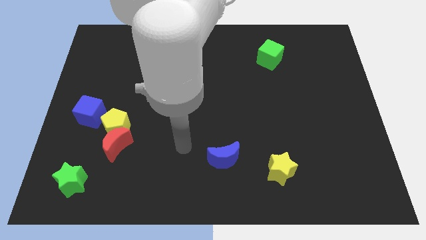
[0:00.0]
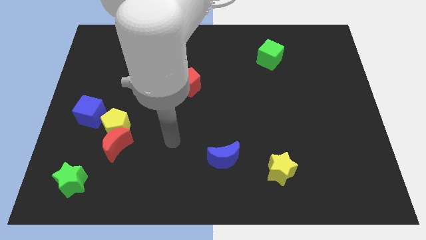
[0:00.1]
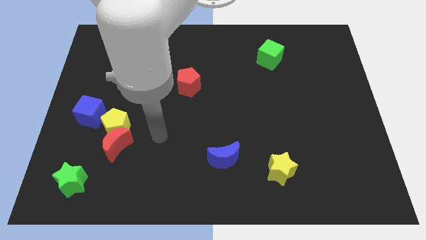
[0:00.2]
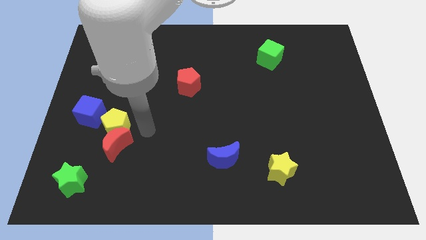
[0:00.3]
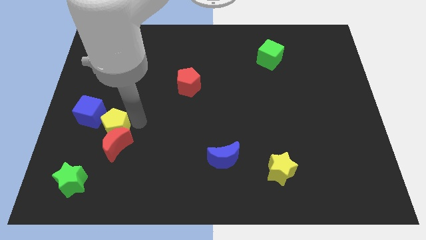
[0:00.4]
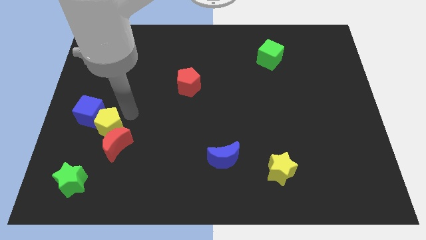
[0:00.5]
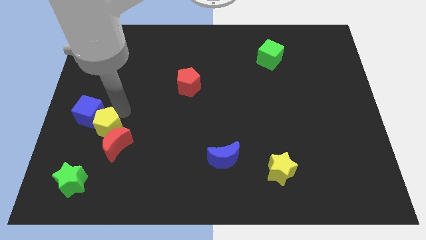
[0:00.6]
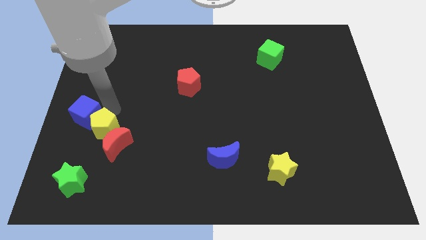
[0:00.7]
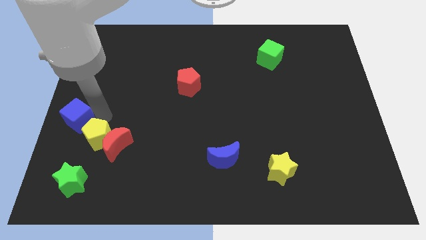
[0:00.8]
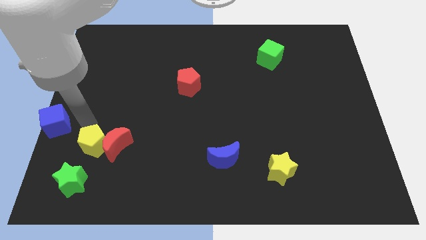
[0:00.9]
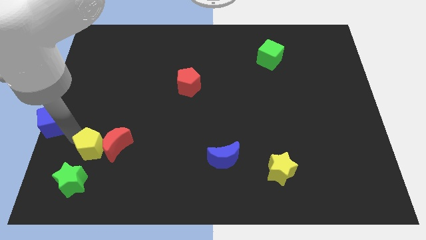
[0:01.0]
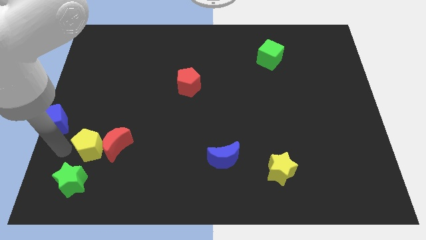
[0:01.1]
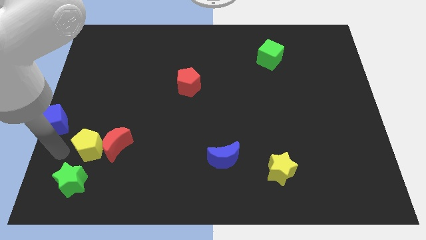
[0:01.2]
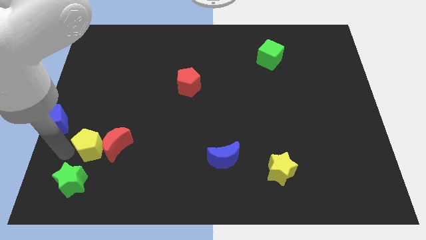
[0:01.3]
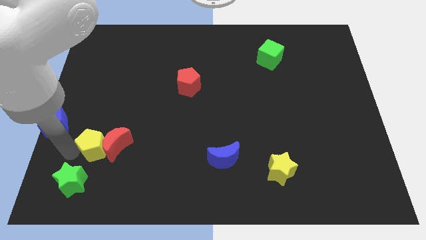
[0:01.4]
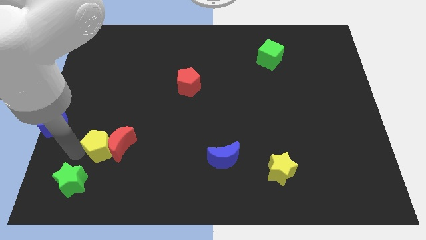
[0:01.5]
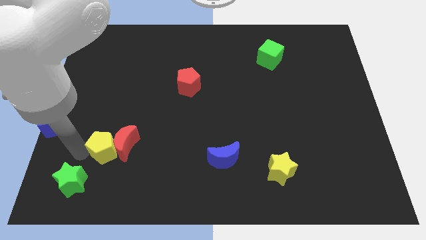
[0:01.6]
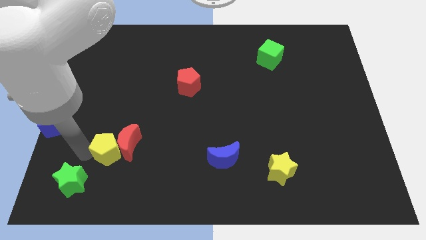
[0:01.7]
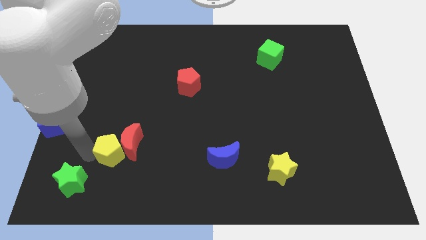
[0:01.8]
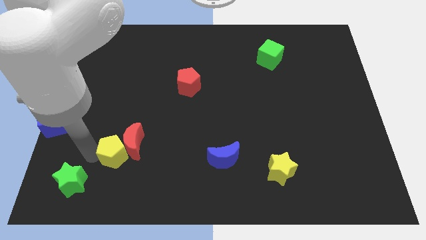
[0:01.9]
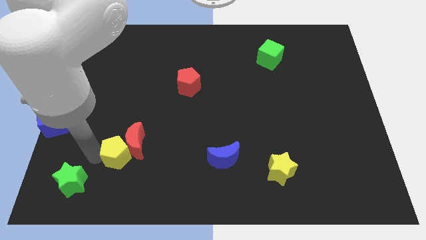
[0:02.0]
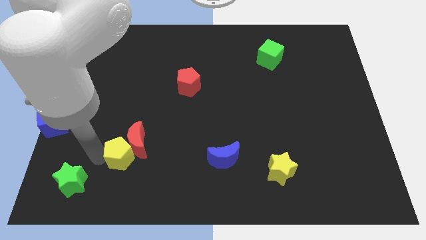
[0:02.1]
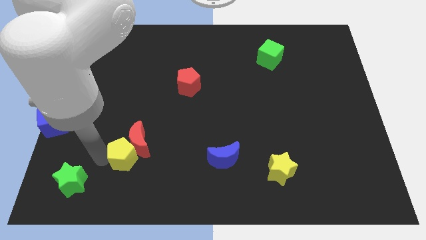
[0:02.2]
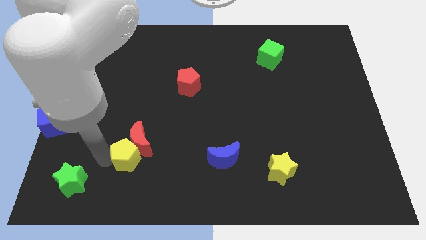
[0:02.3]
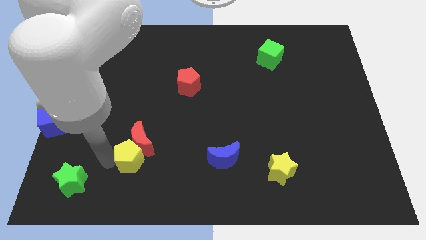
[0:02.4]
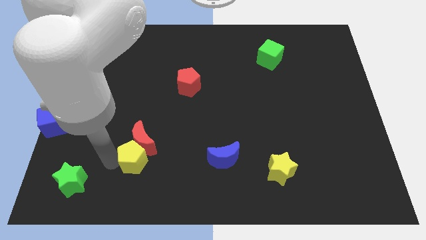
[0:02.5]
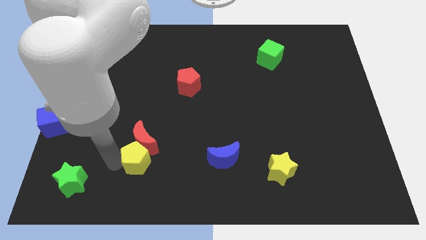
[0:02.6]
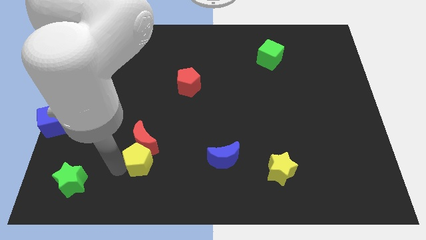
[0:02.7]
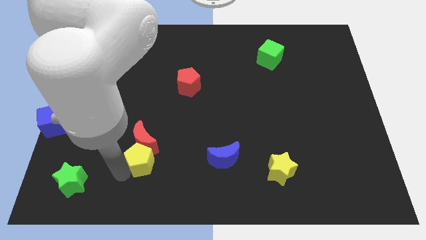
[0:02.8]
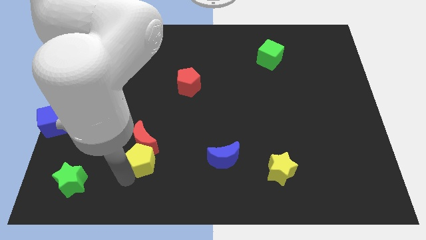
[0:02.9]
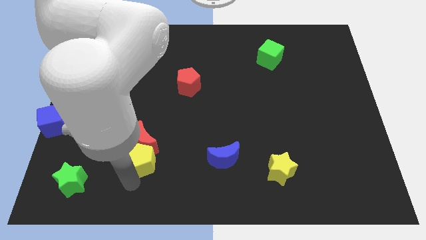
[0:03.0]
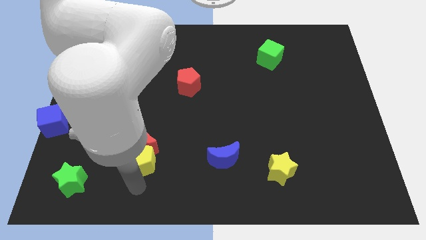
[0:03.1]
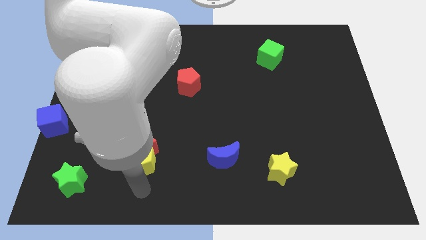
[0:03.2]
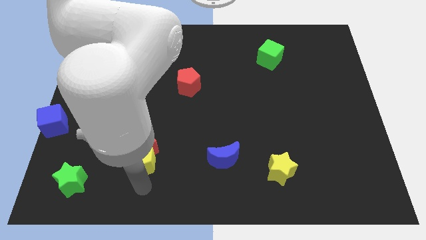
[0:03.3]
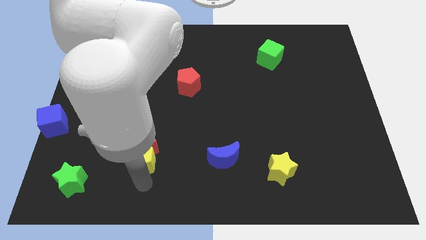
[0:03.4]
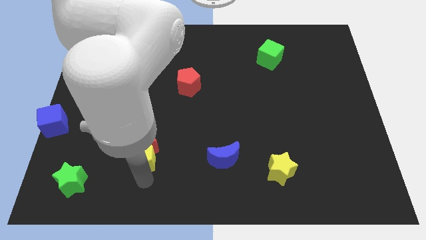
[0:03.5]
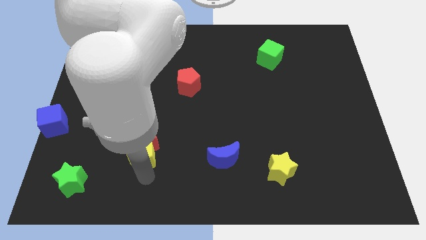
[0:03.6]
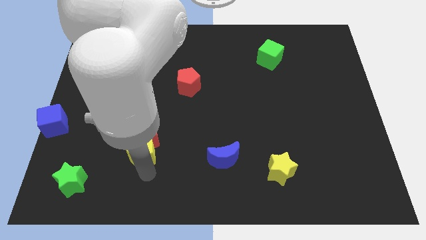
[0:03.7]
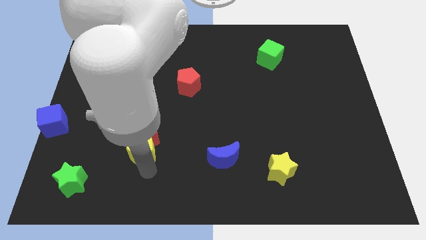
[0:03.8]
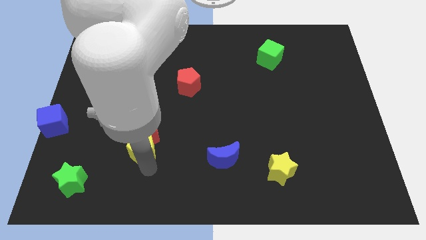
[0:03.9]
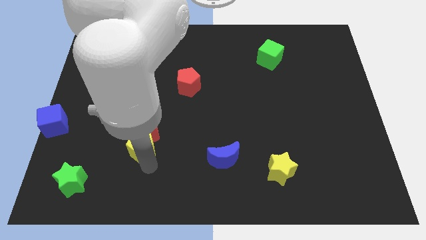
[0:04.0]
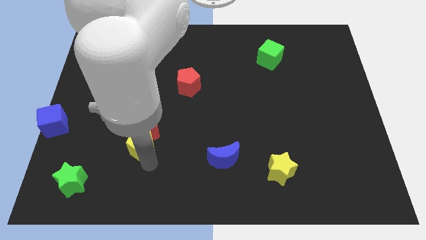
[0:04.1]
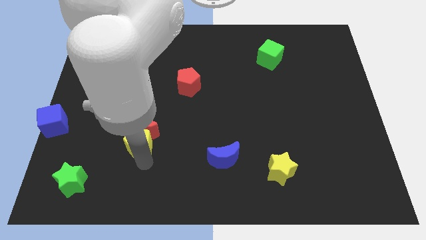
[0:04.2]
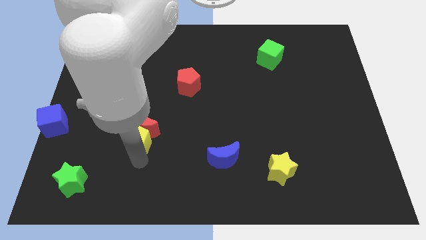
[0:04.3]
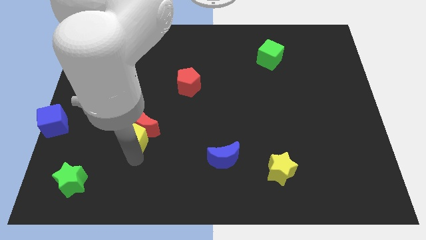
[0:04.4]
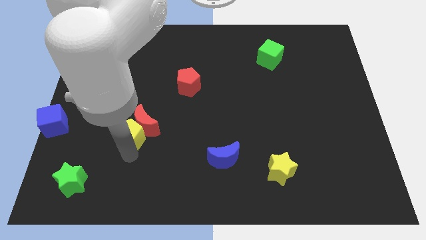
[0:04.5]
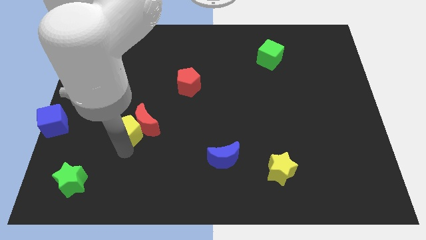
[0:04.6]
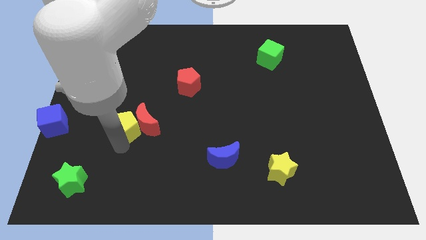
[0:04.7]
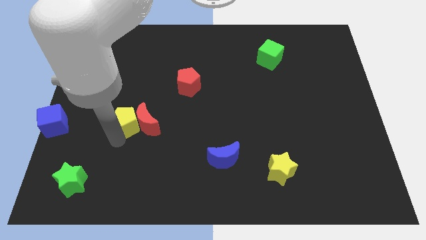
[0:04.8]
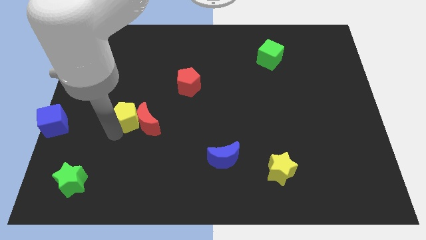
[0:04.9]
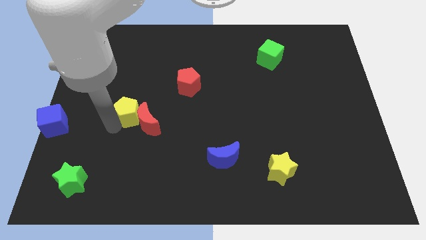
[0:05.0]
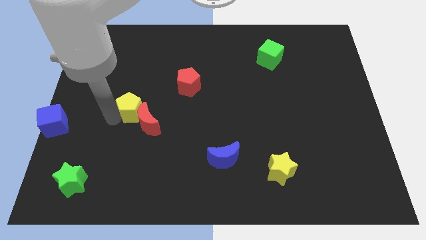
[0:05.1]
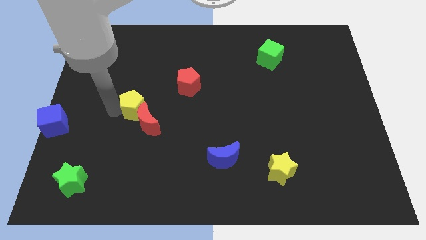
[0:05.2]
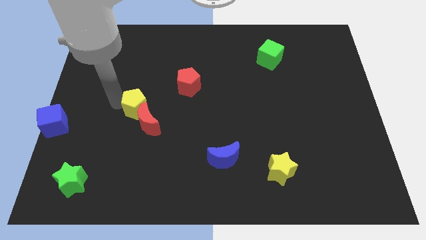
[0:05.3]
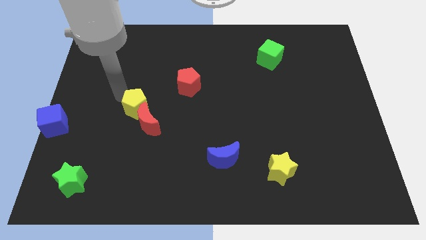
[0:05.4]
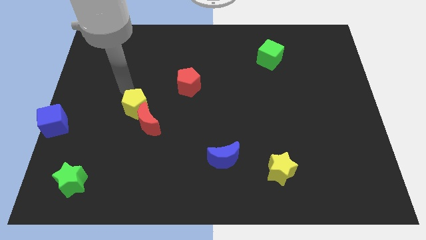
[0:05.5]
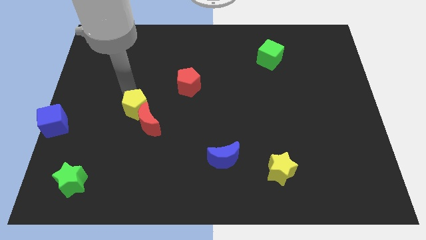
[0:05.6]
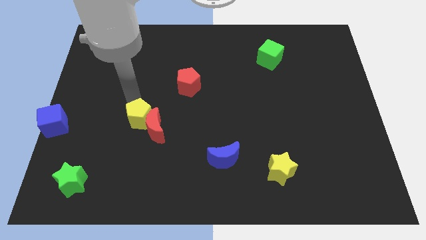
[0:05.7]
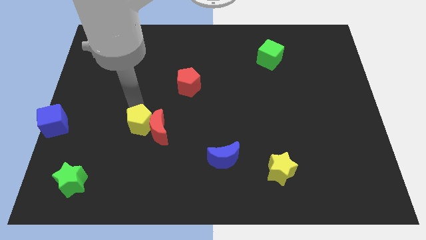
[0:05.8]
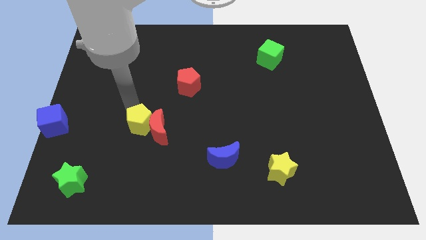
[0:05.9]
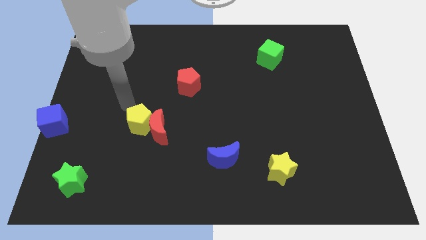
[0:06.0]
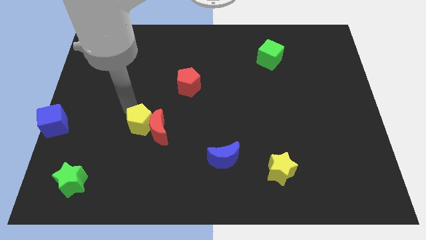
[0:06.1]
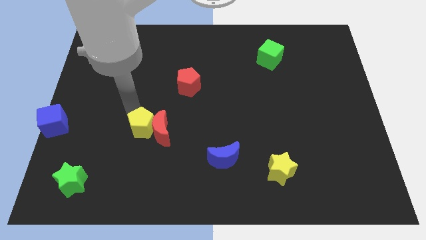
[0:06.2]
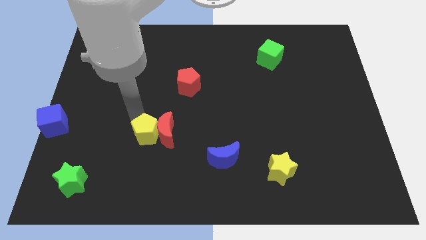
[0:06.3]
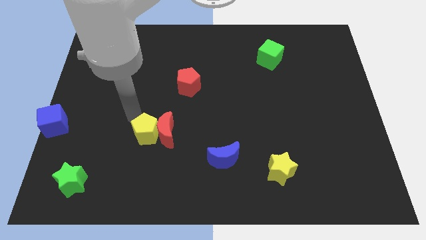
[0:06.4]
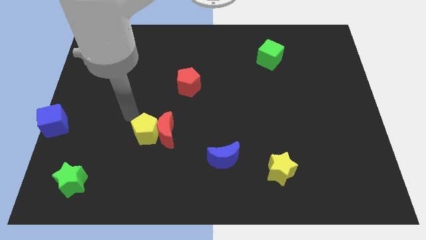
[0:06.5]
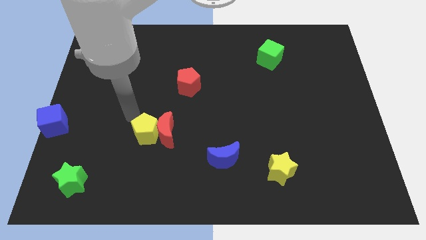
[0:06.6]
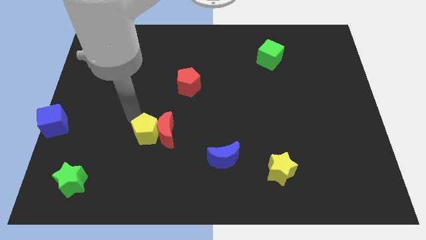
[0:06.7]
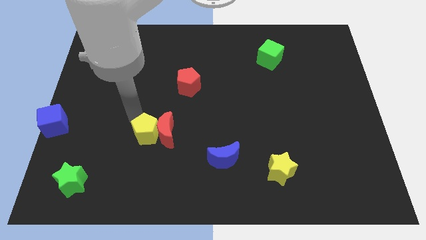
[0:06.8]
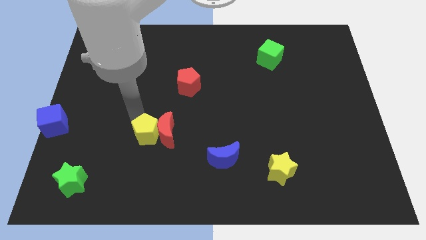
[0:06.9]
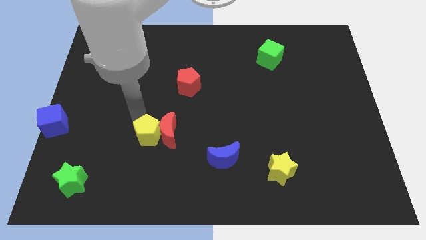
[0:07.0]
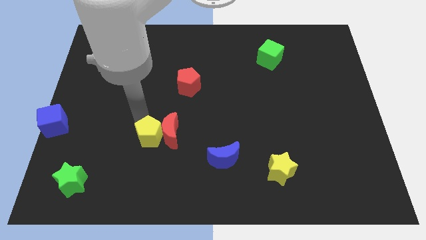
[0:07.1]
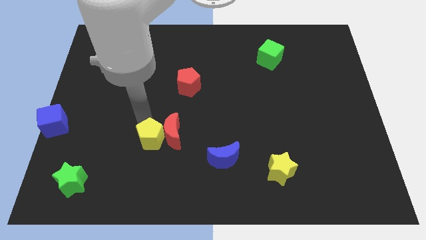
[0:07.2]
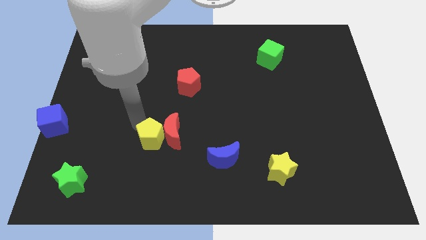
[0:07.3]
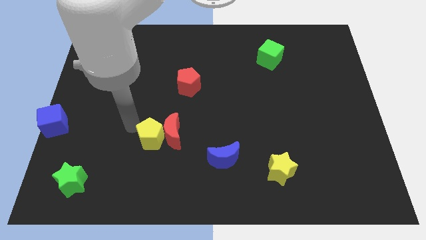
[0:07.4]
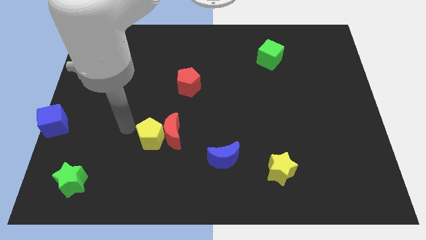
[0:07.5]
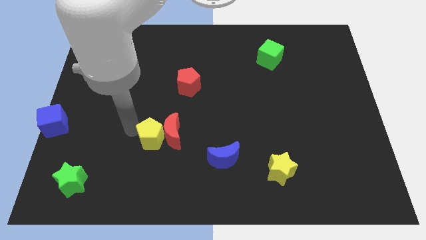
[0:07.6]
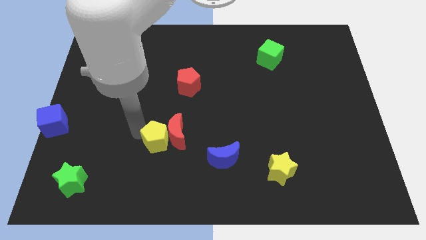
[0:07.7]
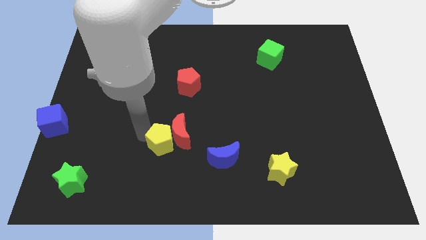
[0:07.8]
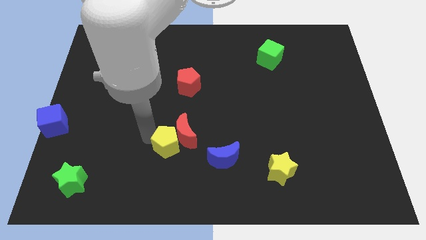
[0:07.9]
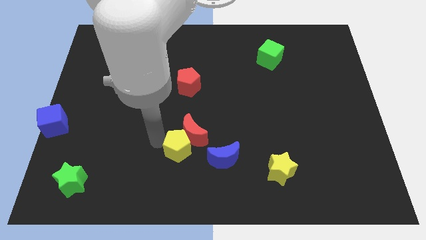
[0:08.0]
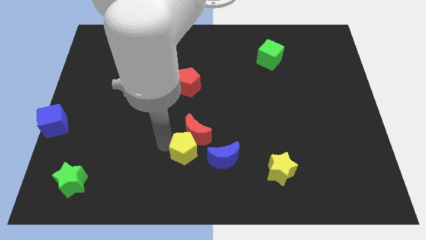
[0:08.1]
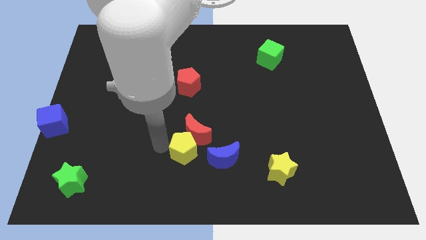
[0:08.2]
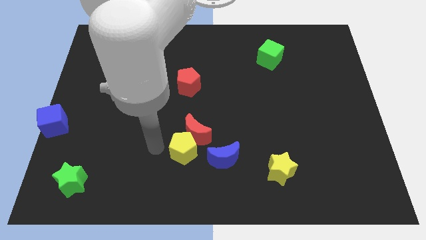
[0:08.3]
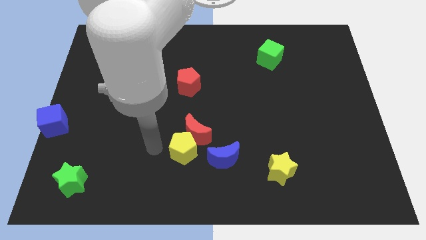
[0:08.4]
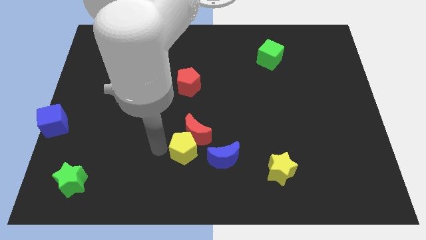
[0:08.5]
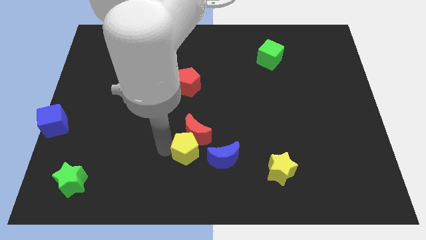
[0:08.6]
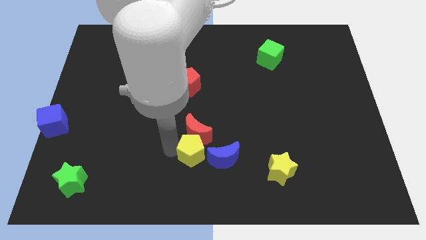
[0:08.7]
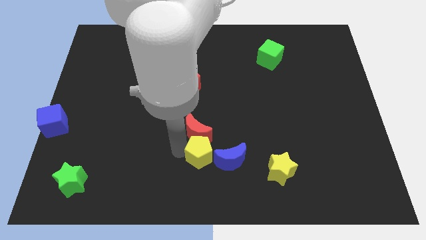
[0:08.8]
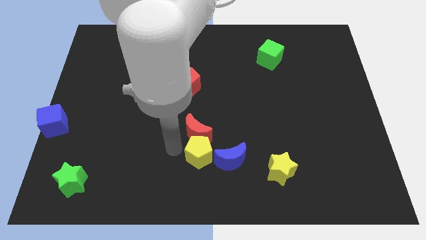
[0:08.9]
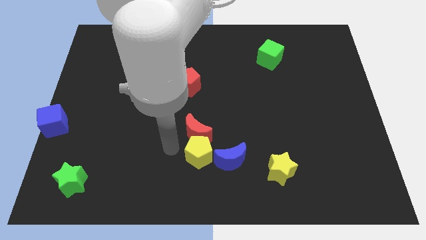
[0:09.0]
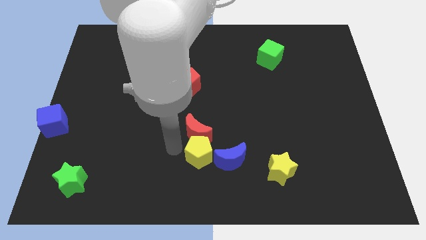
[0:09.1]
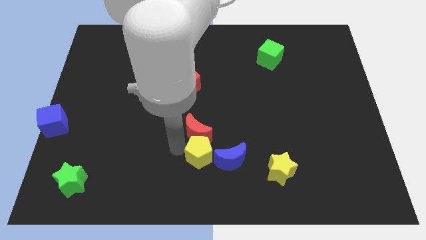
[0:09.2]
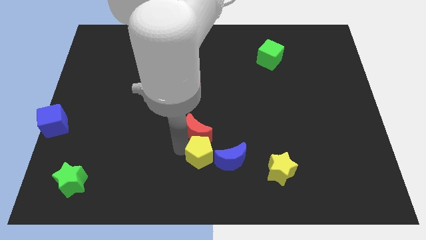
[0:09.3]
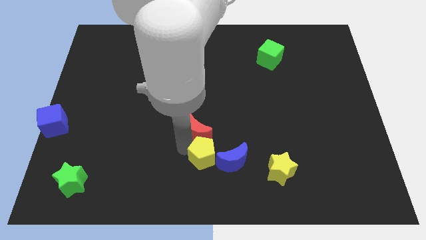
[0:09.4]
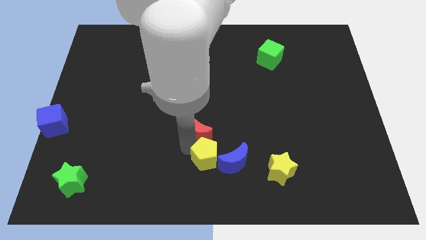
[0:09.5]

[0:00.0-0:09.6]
put the yellow pentagon close to the blue moon
